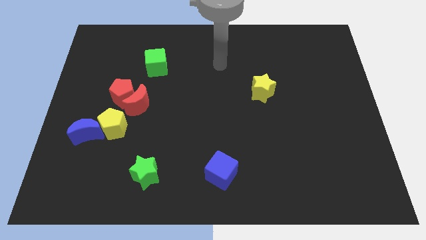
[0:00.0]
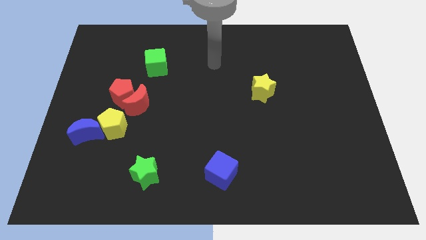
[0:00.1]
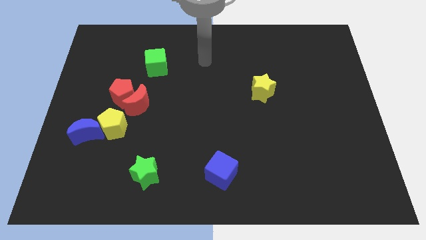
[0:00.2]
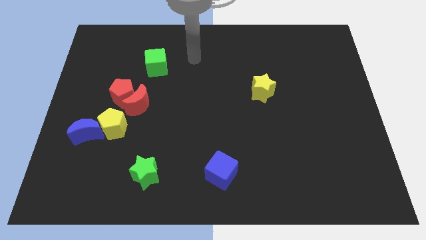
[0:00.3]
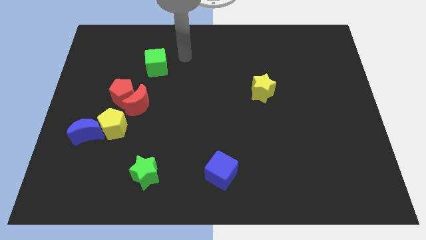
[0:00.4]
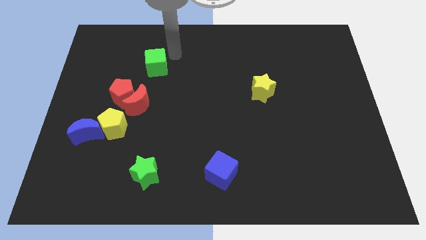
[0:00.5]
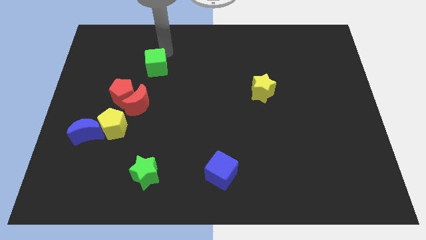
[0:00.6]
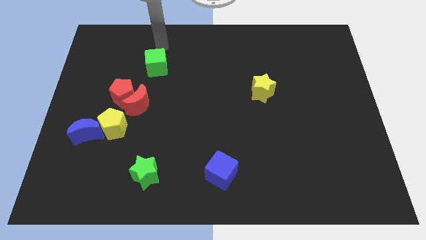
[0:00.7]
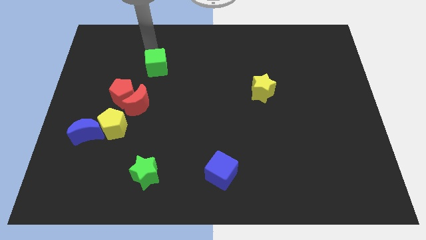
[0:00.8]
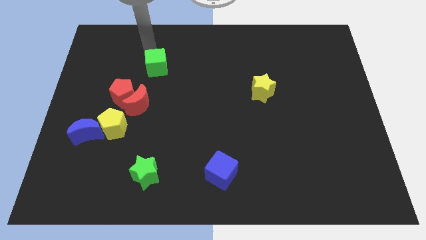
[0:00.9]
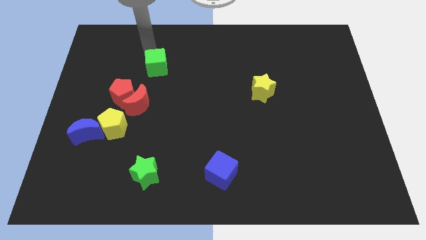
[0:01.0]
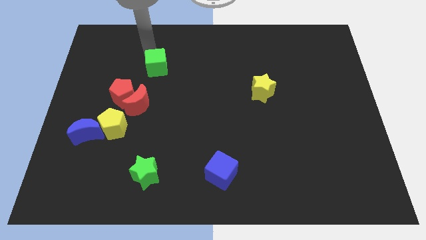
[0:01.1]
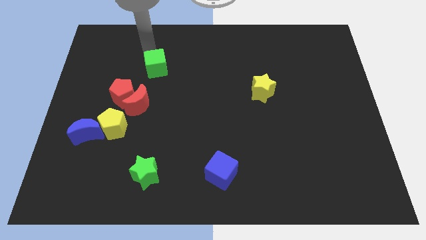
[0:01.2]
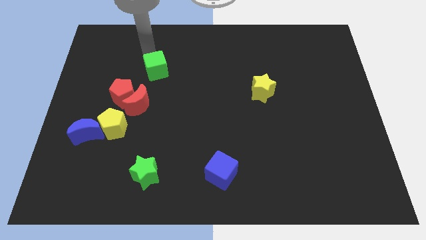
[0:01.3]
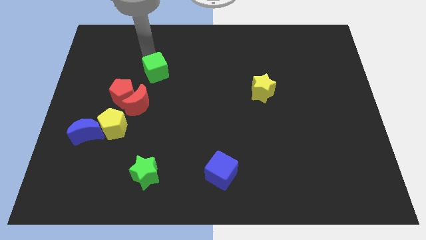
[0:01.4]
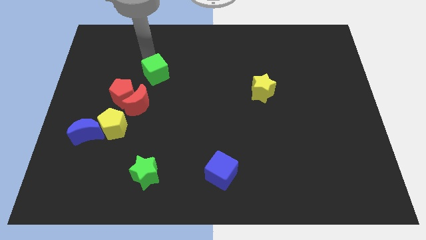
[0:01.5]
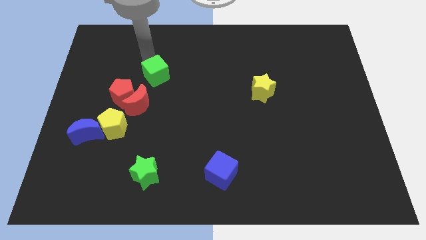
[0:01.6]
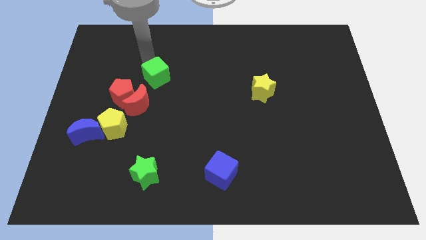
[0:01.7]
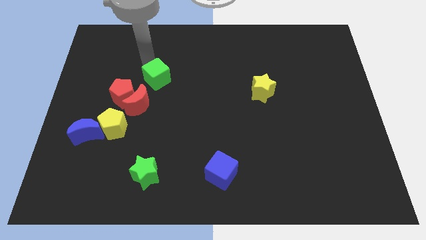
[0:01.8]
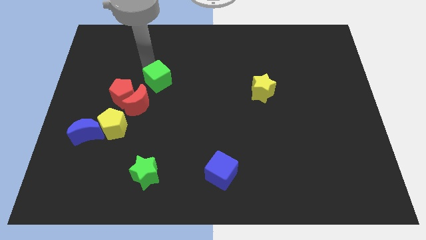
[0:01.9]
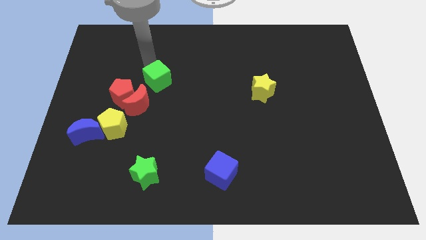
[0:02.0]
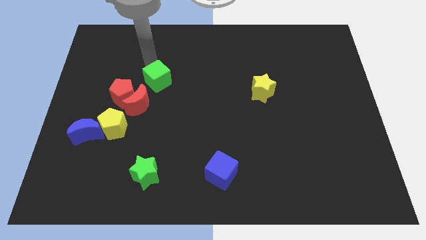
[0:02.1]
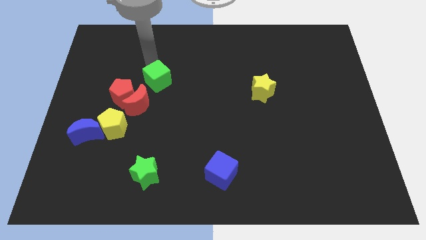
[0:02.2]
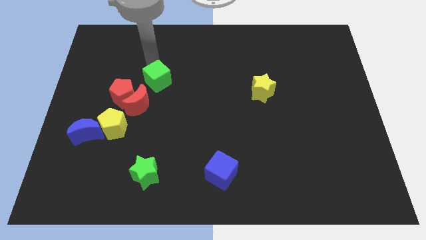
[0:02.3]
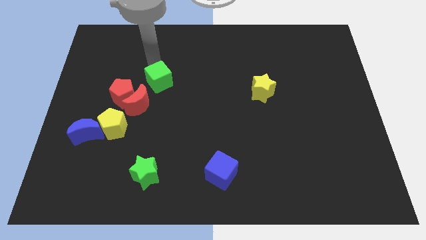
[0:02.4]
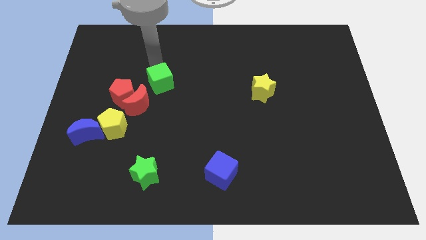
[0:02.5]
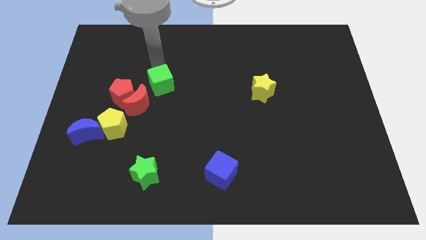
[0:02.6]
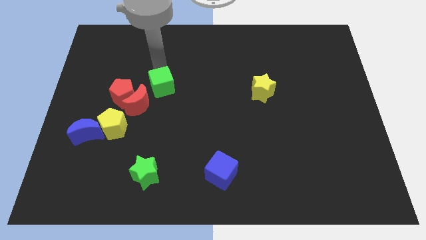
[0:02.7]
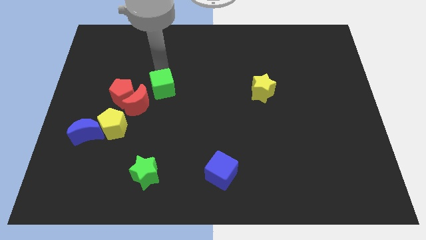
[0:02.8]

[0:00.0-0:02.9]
push the green cube down a little

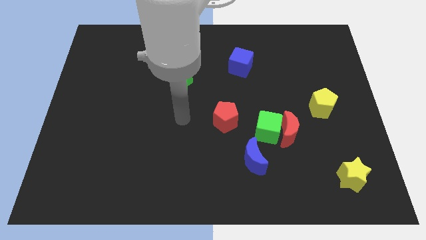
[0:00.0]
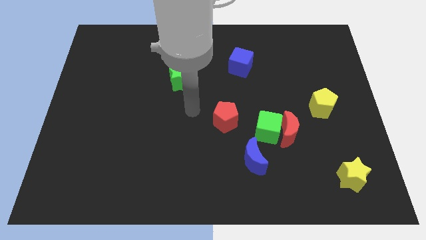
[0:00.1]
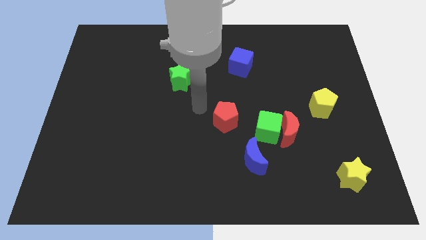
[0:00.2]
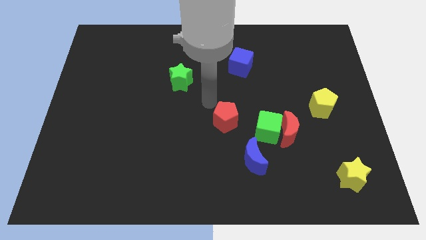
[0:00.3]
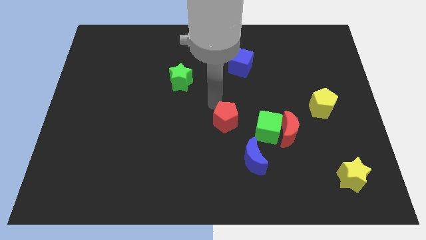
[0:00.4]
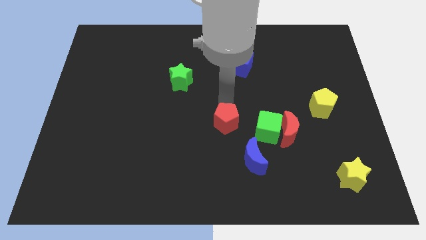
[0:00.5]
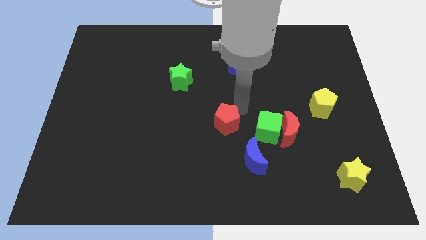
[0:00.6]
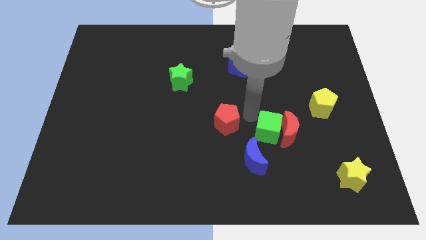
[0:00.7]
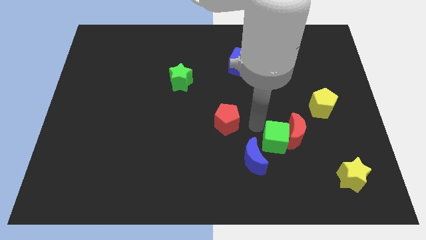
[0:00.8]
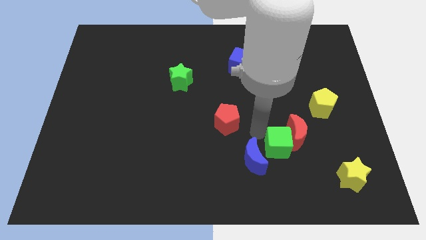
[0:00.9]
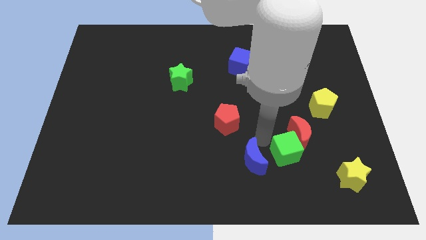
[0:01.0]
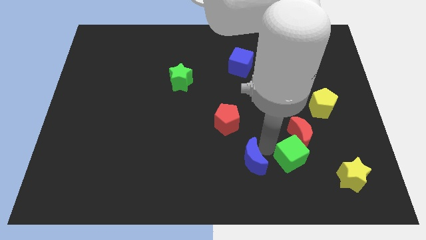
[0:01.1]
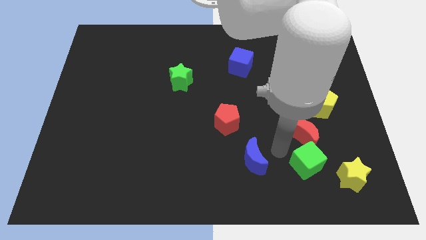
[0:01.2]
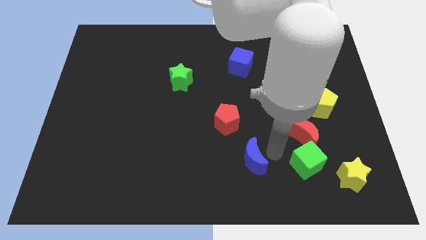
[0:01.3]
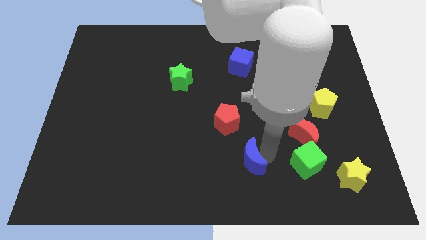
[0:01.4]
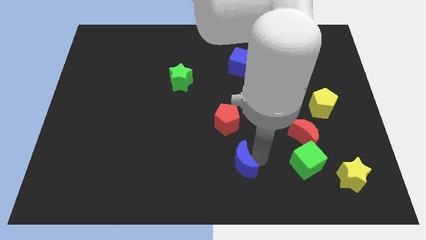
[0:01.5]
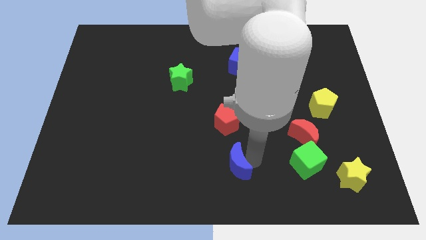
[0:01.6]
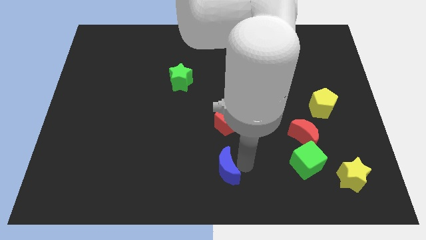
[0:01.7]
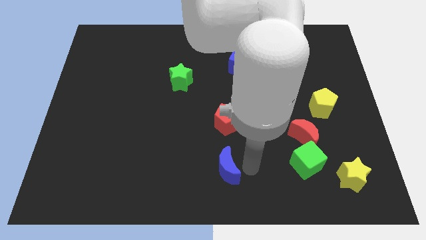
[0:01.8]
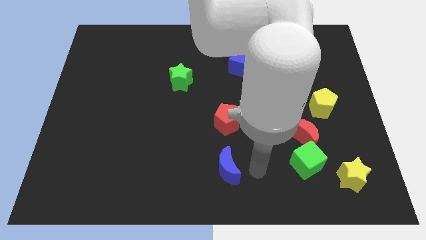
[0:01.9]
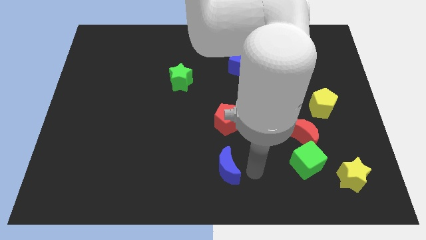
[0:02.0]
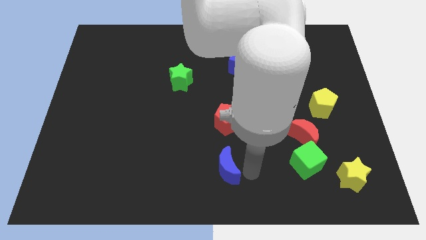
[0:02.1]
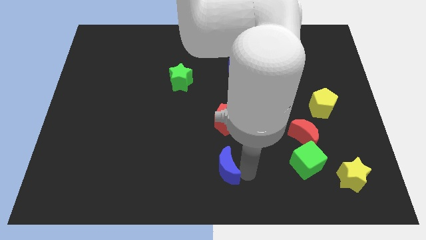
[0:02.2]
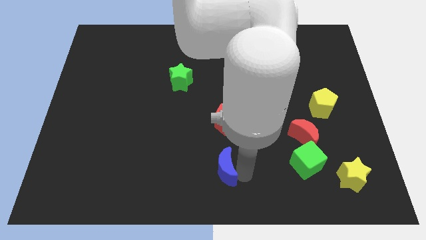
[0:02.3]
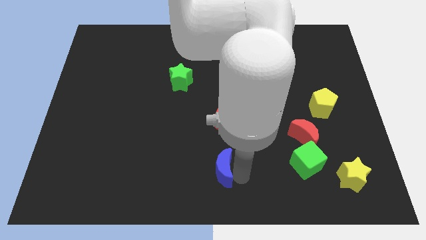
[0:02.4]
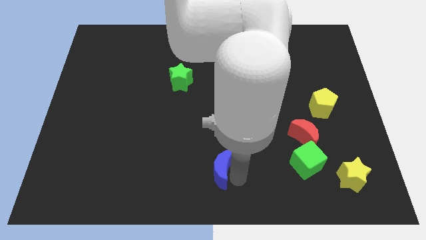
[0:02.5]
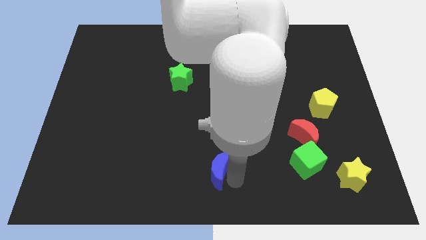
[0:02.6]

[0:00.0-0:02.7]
slightly push the blue moon left

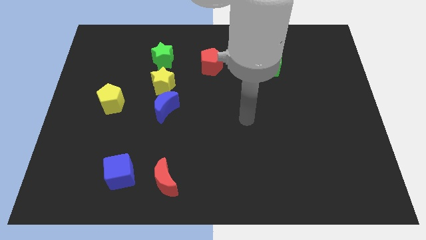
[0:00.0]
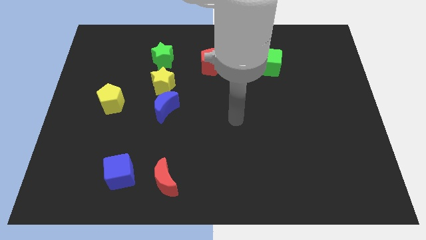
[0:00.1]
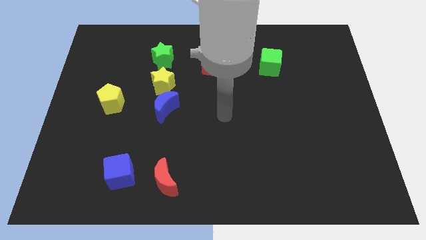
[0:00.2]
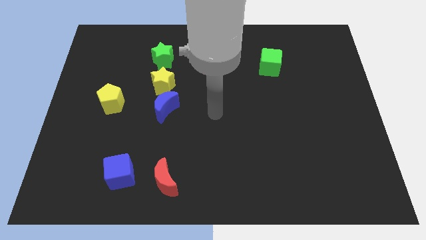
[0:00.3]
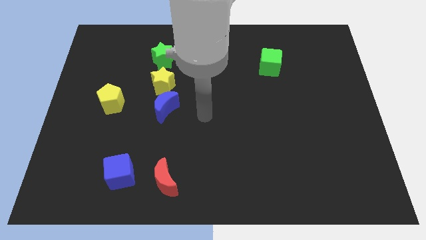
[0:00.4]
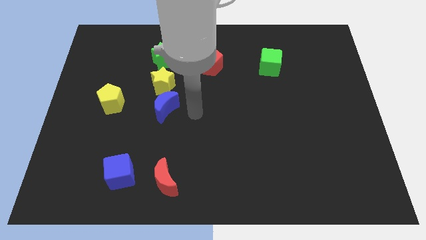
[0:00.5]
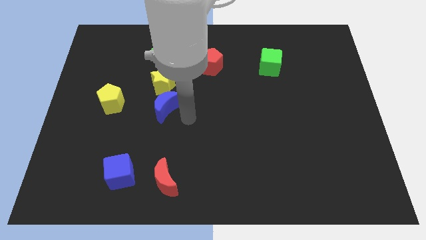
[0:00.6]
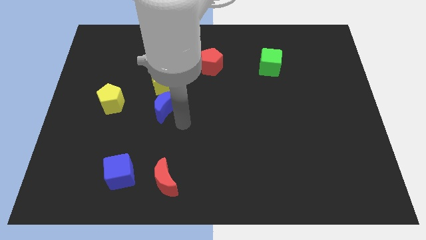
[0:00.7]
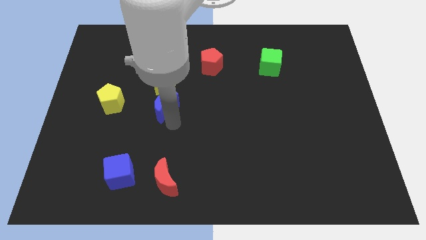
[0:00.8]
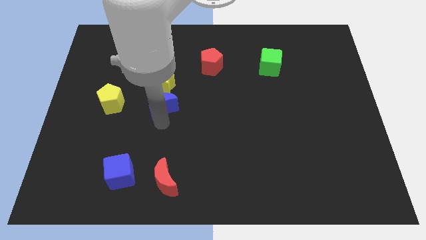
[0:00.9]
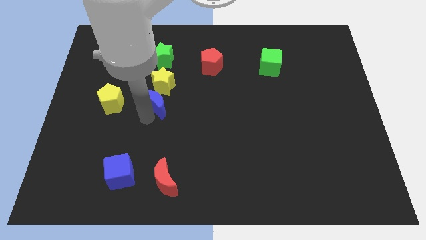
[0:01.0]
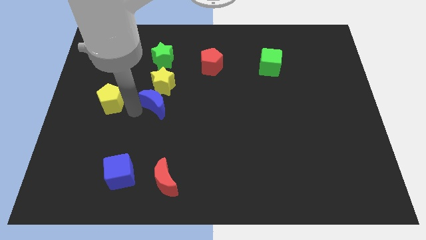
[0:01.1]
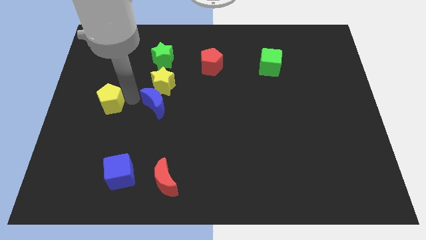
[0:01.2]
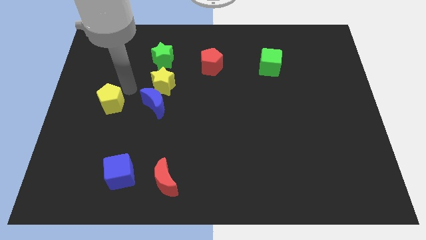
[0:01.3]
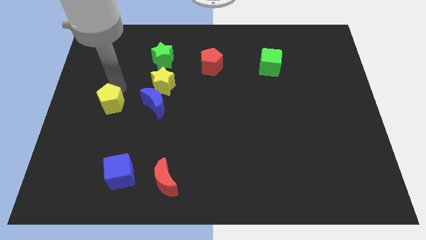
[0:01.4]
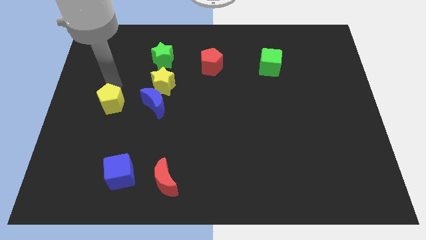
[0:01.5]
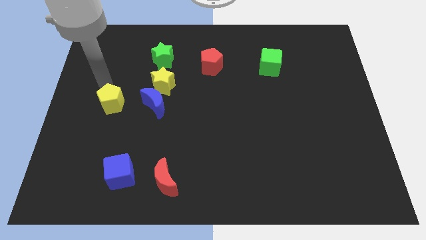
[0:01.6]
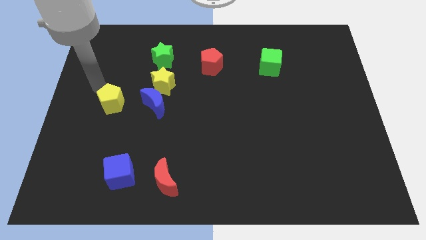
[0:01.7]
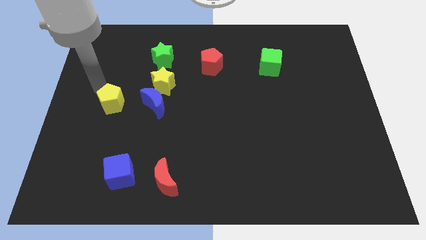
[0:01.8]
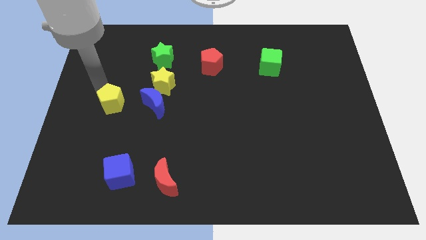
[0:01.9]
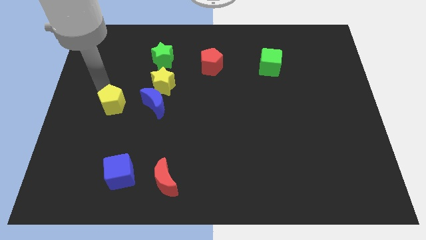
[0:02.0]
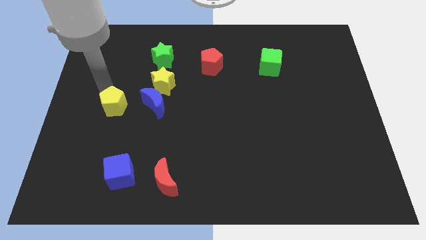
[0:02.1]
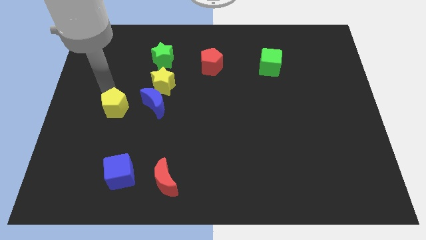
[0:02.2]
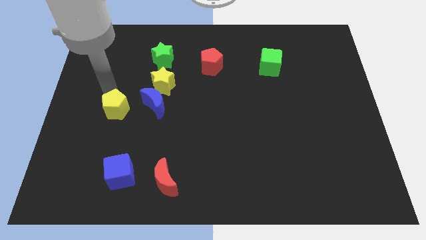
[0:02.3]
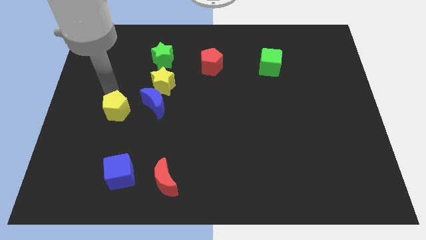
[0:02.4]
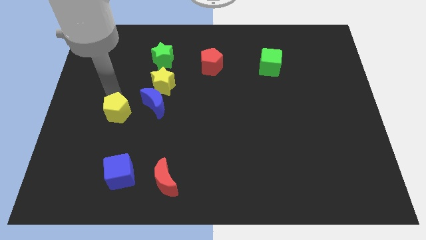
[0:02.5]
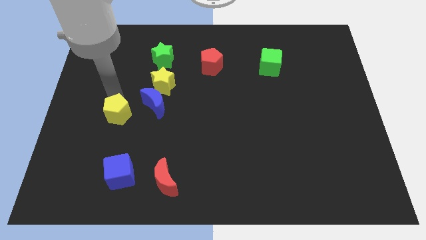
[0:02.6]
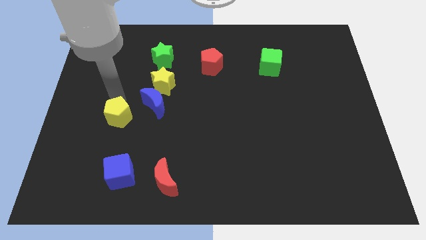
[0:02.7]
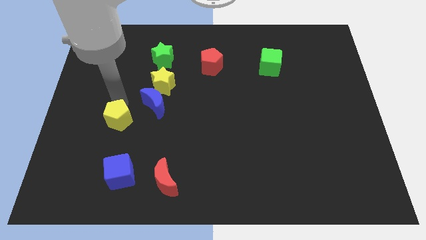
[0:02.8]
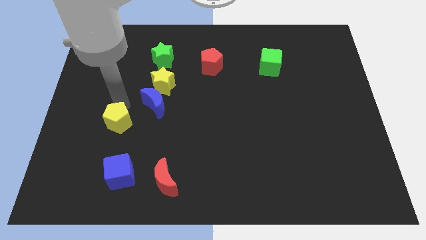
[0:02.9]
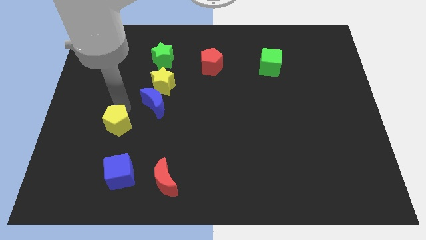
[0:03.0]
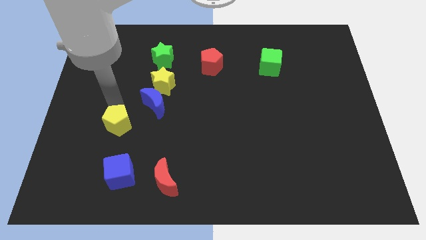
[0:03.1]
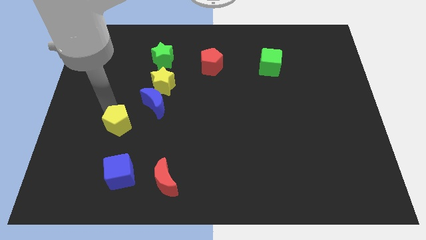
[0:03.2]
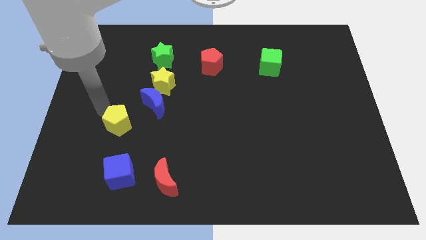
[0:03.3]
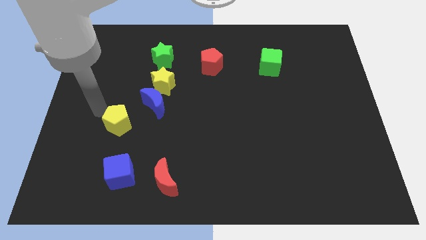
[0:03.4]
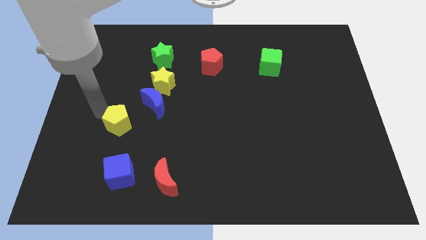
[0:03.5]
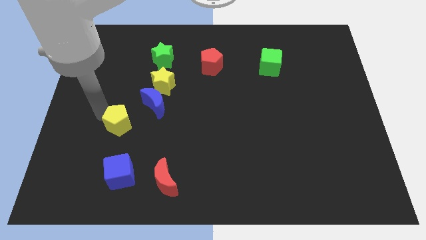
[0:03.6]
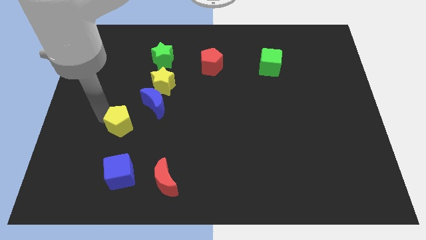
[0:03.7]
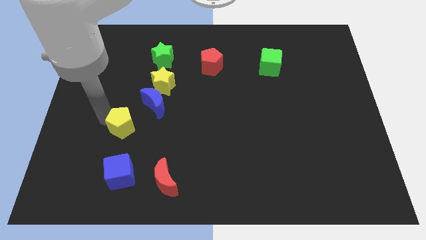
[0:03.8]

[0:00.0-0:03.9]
push the yellow pentagon down and right diagonally a bit
